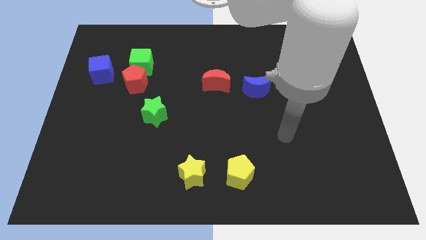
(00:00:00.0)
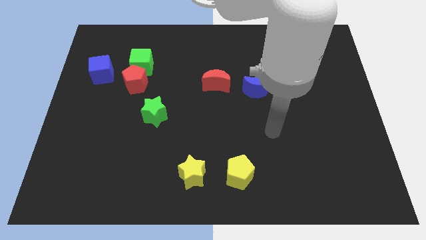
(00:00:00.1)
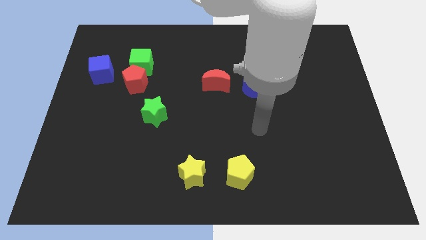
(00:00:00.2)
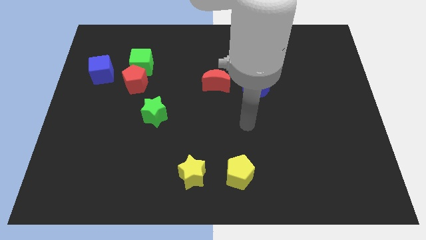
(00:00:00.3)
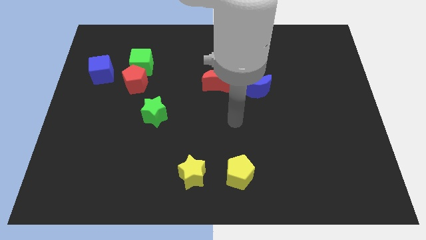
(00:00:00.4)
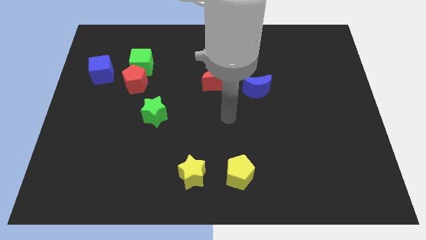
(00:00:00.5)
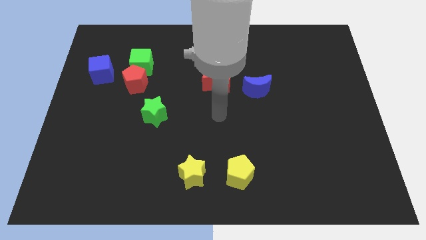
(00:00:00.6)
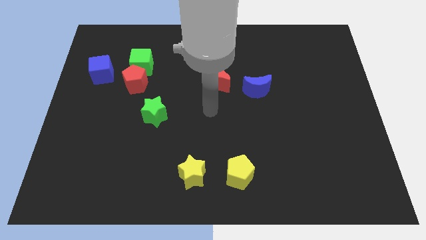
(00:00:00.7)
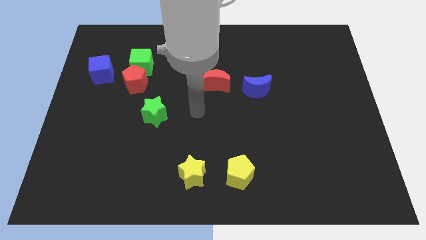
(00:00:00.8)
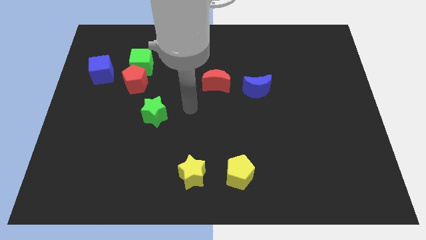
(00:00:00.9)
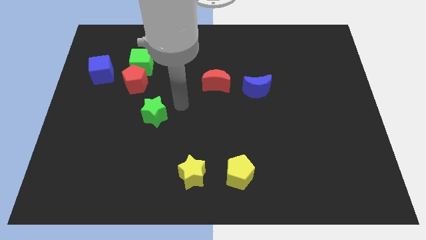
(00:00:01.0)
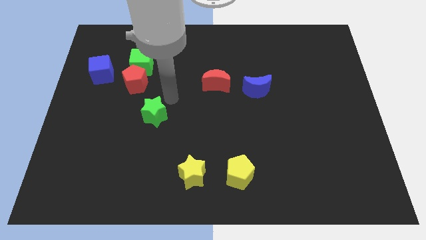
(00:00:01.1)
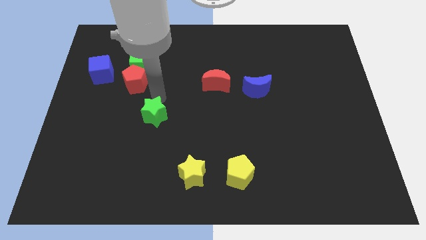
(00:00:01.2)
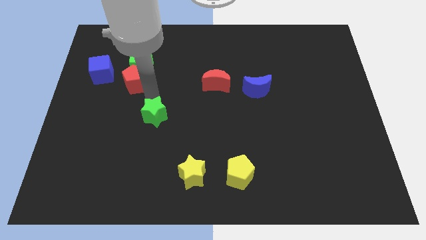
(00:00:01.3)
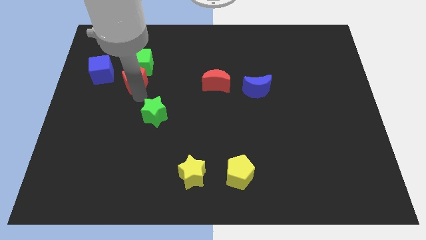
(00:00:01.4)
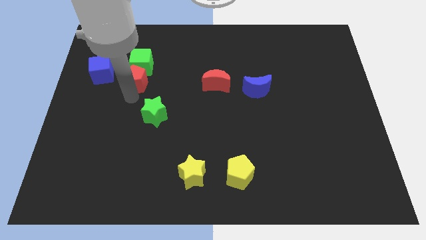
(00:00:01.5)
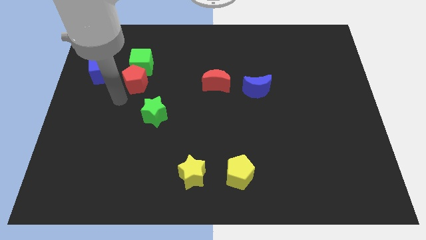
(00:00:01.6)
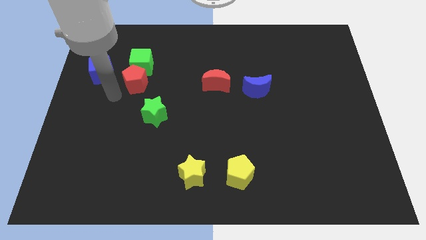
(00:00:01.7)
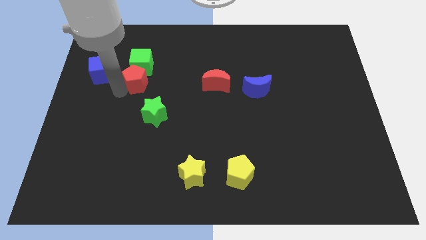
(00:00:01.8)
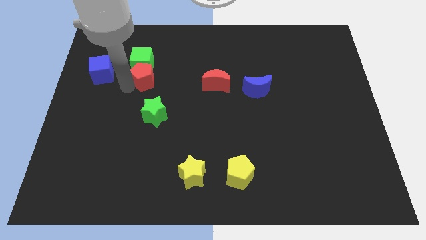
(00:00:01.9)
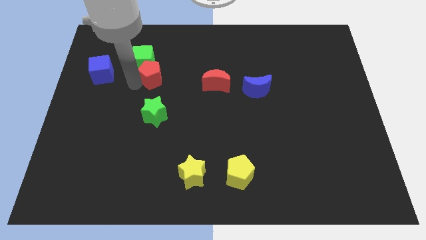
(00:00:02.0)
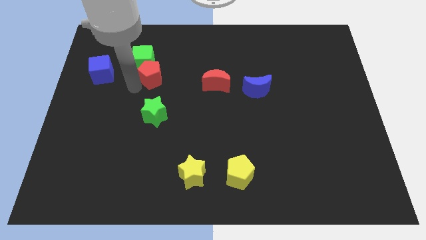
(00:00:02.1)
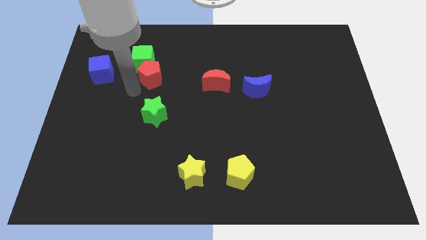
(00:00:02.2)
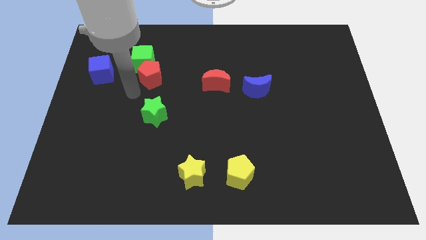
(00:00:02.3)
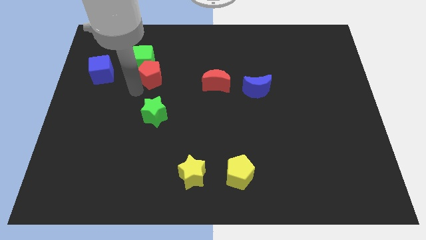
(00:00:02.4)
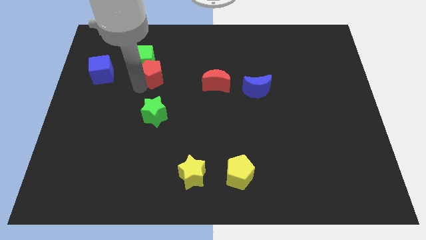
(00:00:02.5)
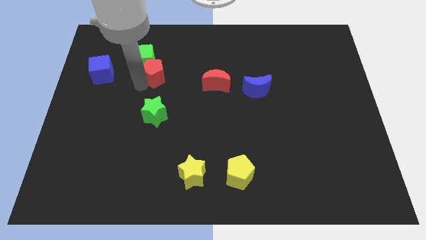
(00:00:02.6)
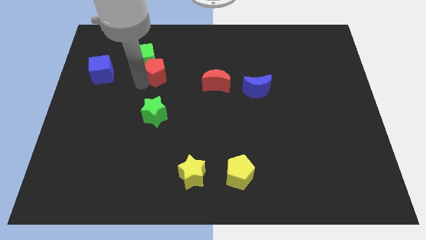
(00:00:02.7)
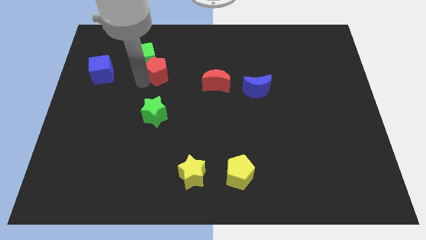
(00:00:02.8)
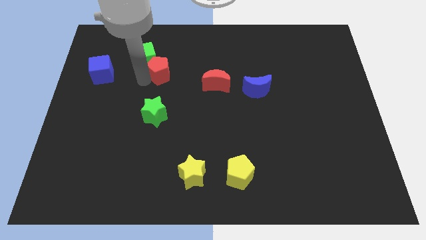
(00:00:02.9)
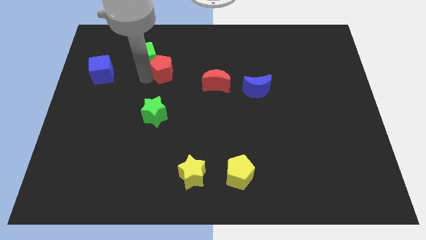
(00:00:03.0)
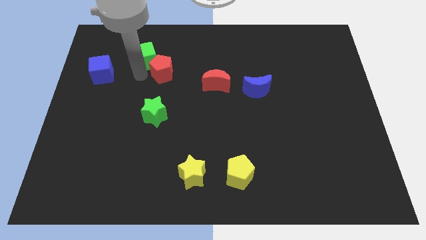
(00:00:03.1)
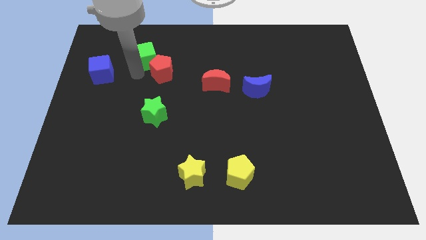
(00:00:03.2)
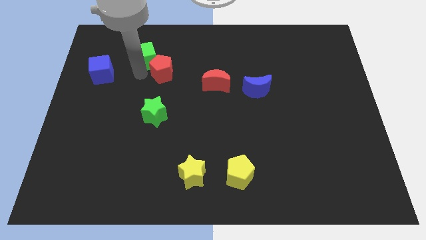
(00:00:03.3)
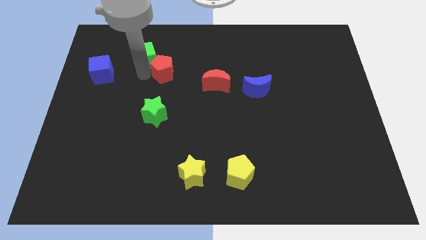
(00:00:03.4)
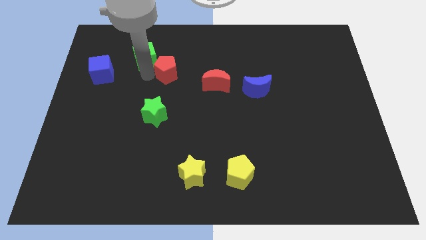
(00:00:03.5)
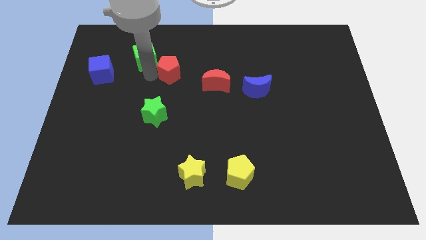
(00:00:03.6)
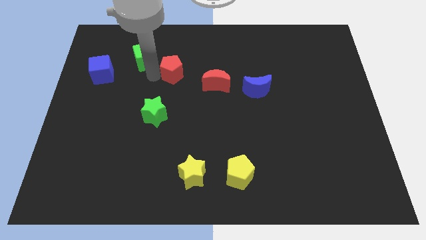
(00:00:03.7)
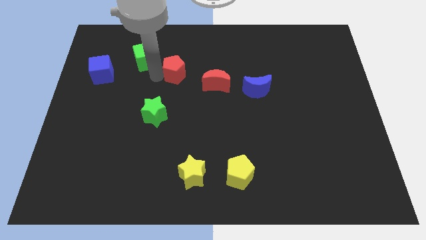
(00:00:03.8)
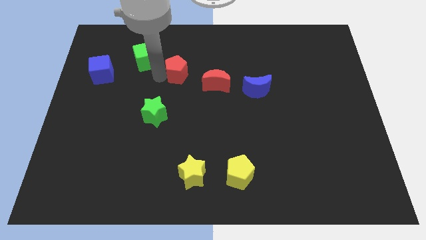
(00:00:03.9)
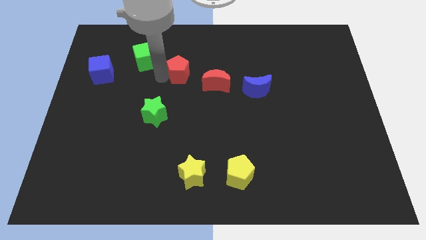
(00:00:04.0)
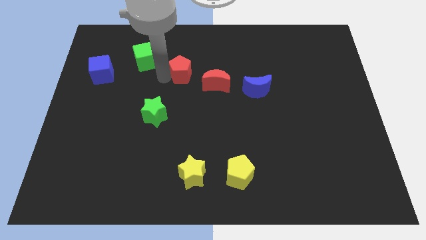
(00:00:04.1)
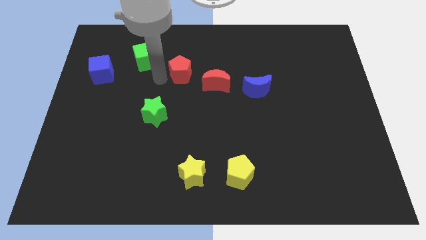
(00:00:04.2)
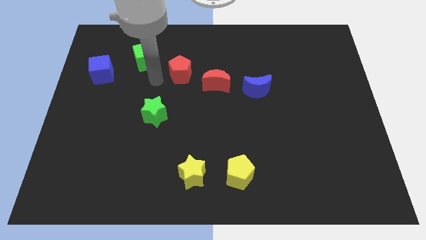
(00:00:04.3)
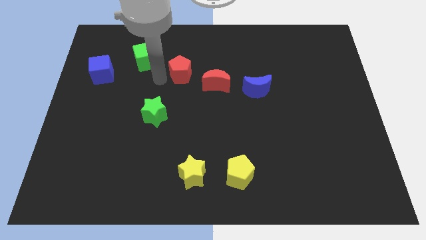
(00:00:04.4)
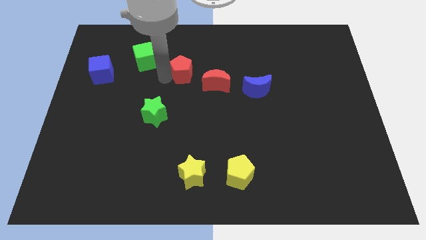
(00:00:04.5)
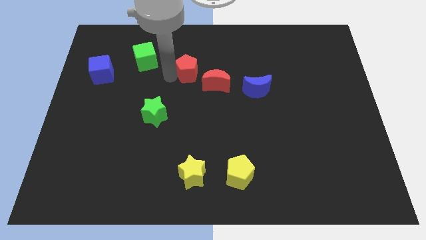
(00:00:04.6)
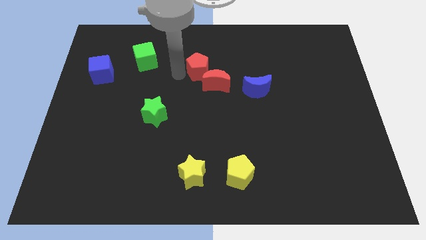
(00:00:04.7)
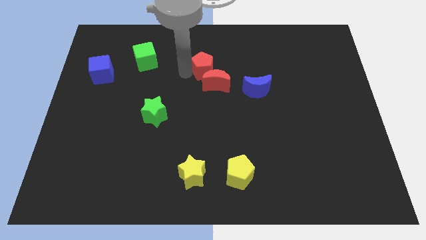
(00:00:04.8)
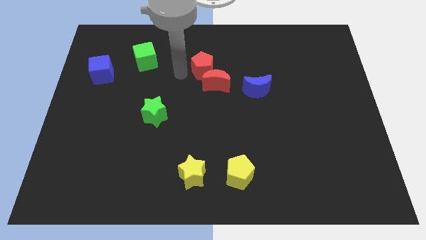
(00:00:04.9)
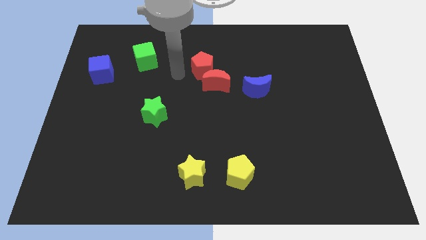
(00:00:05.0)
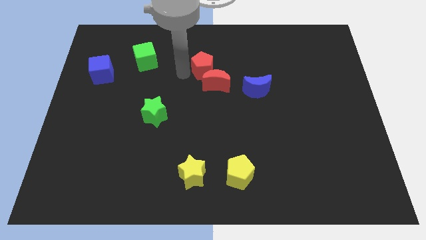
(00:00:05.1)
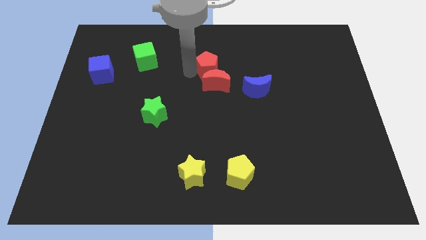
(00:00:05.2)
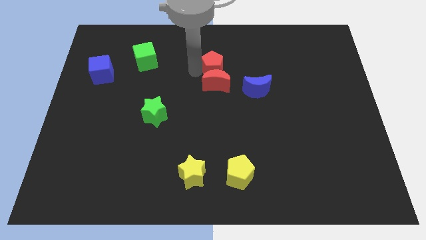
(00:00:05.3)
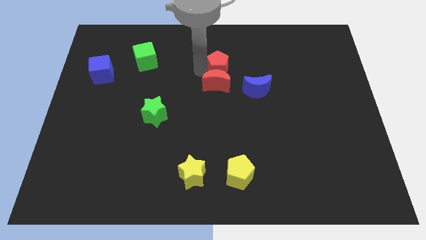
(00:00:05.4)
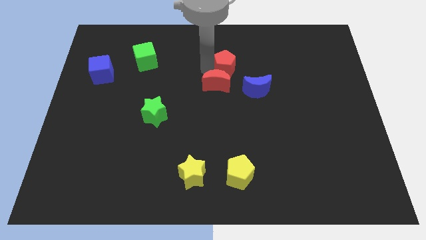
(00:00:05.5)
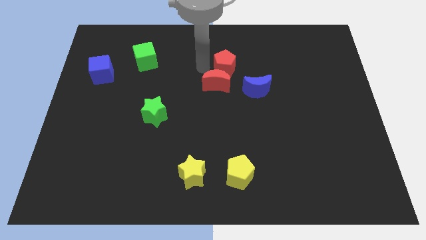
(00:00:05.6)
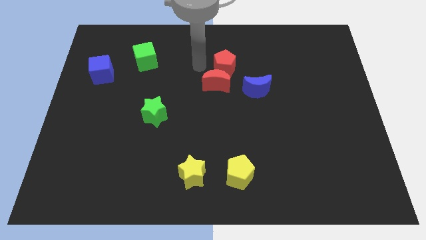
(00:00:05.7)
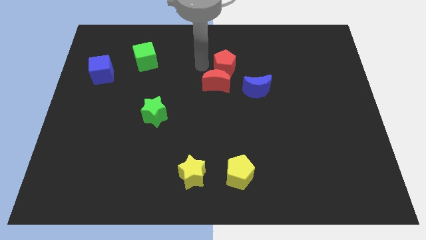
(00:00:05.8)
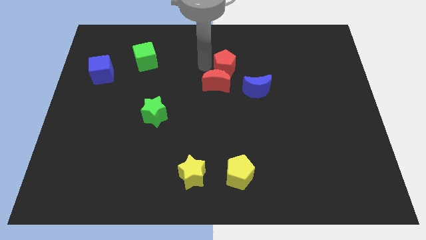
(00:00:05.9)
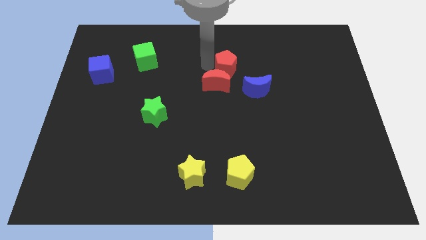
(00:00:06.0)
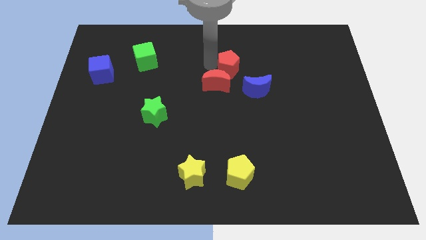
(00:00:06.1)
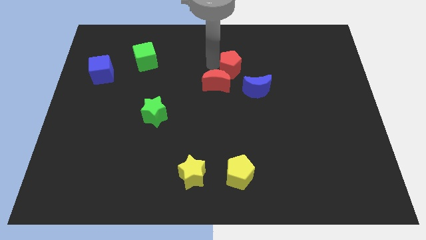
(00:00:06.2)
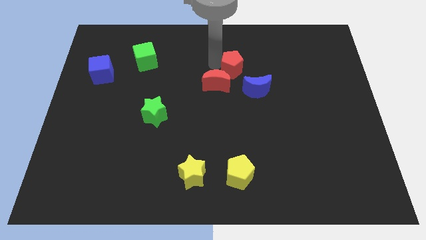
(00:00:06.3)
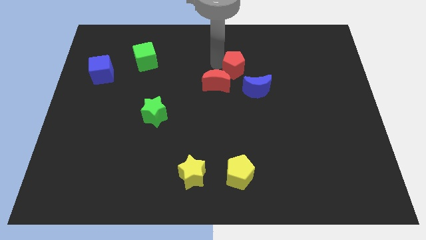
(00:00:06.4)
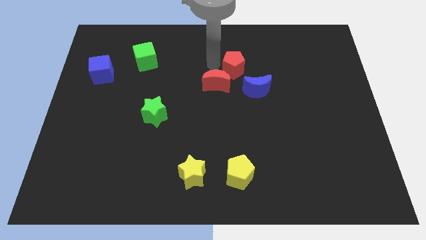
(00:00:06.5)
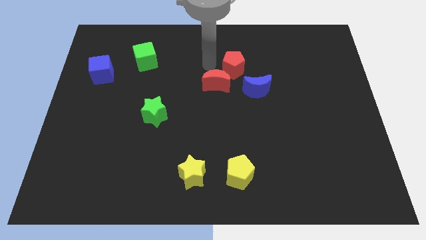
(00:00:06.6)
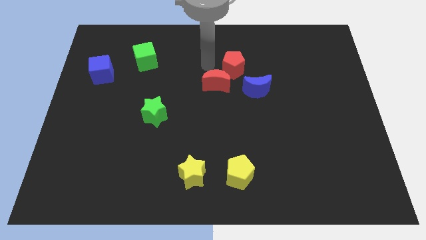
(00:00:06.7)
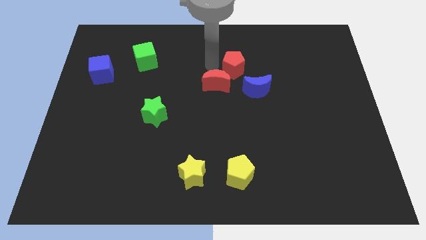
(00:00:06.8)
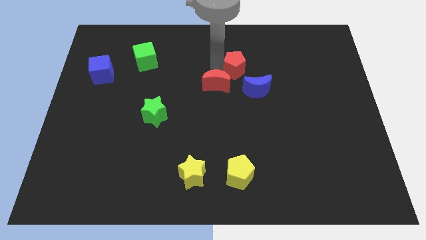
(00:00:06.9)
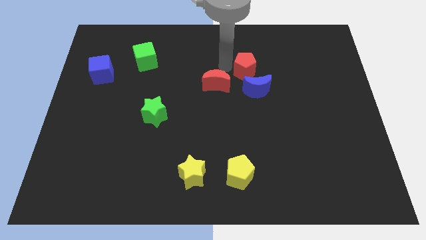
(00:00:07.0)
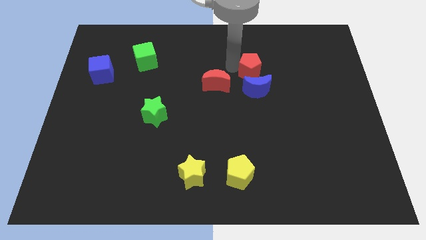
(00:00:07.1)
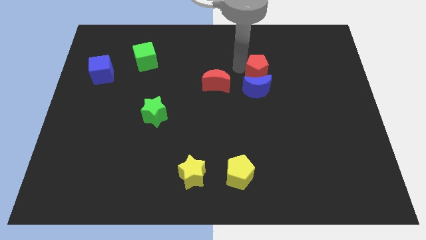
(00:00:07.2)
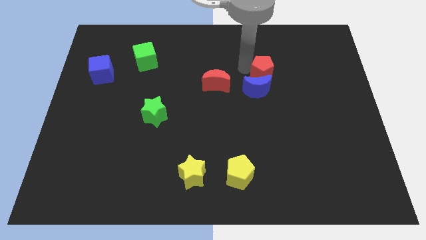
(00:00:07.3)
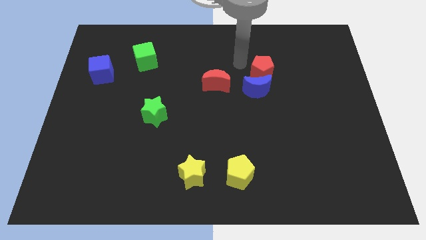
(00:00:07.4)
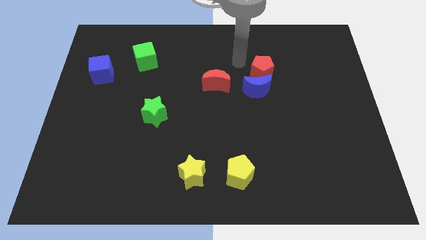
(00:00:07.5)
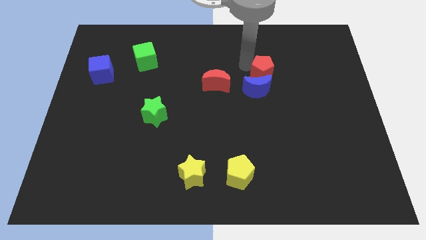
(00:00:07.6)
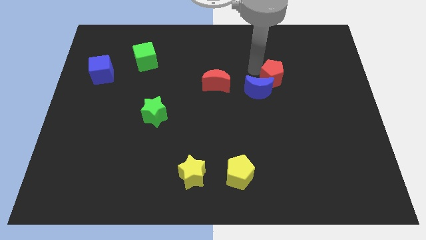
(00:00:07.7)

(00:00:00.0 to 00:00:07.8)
slide the red pentagon to the right of the blue moon
